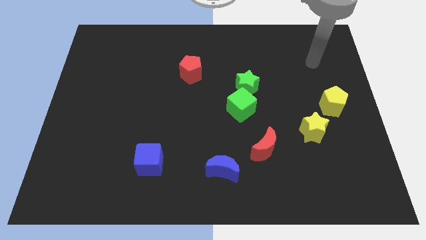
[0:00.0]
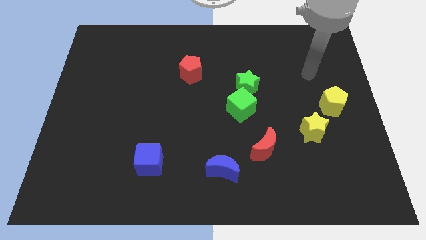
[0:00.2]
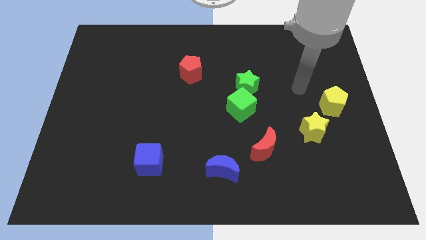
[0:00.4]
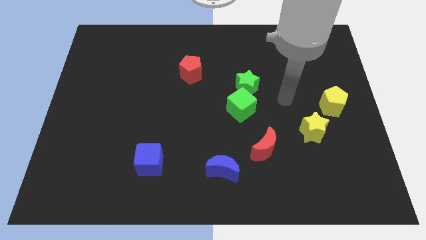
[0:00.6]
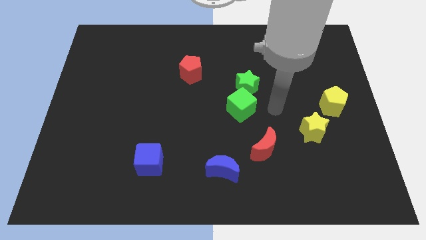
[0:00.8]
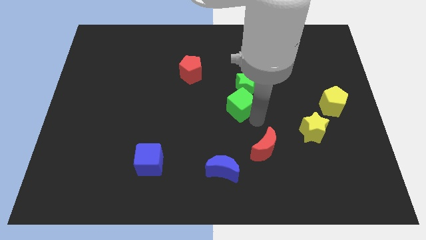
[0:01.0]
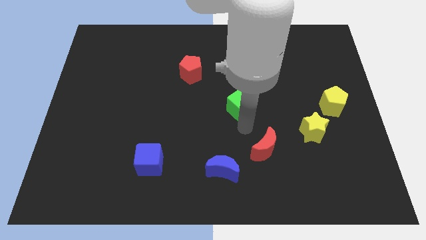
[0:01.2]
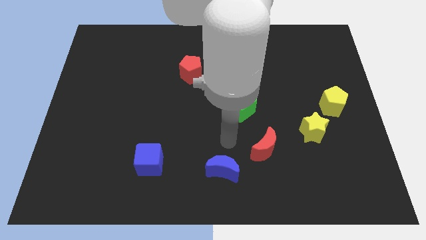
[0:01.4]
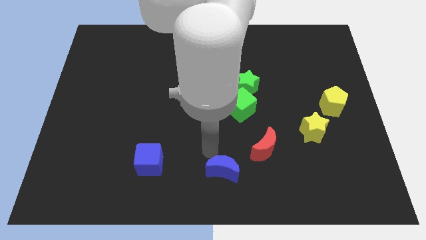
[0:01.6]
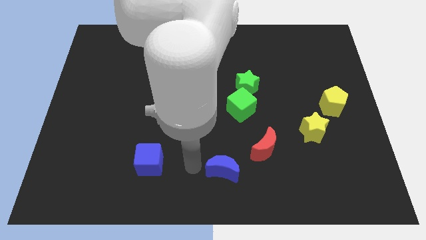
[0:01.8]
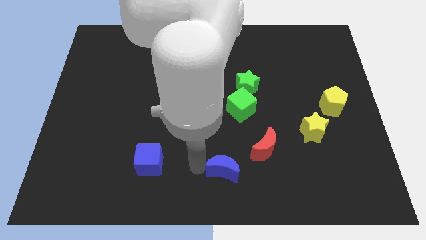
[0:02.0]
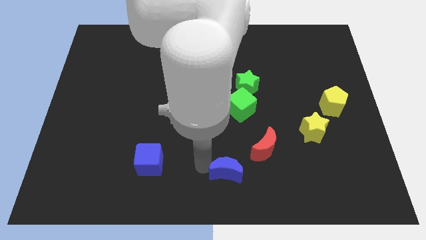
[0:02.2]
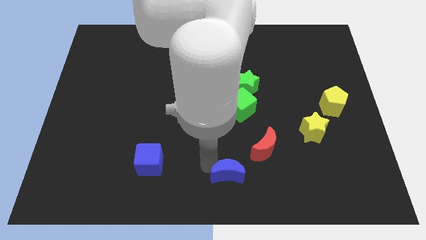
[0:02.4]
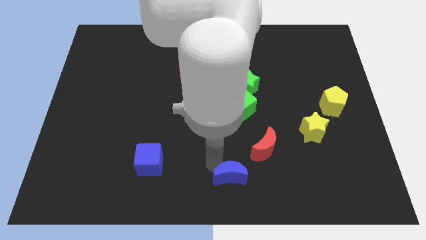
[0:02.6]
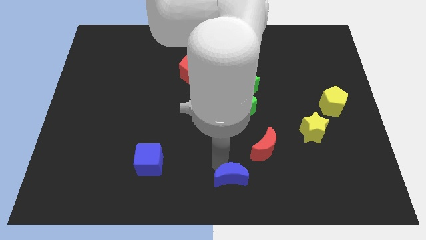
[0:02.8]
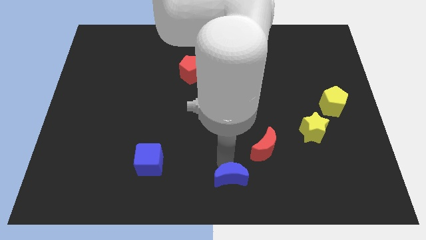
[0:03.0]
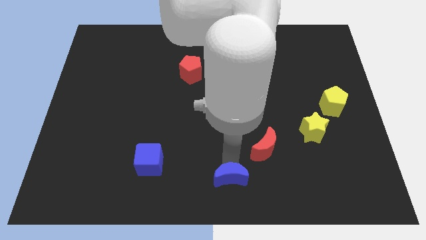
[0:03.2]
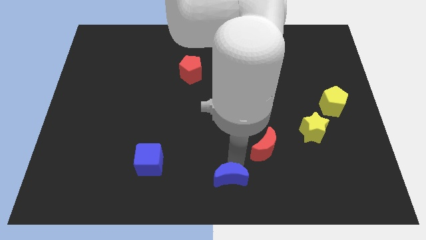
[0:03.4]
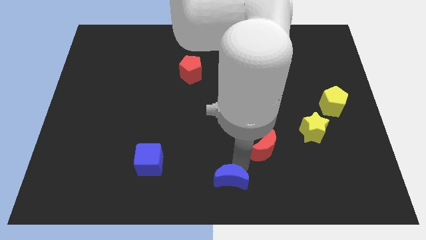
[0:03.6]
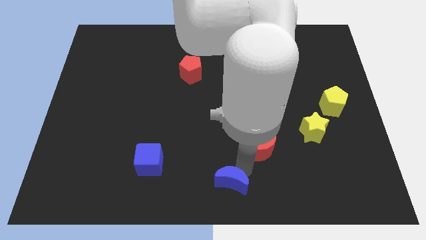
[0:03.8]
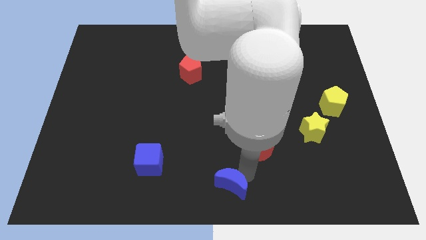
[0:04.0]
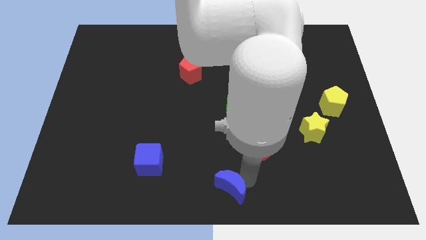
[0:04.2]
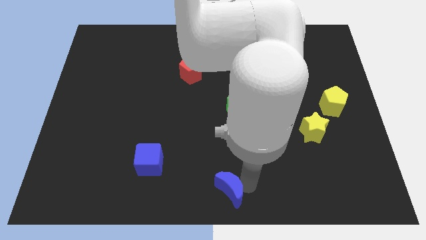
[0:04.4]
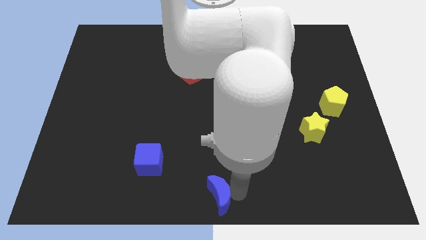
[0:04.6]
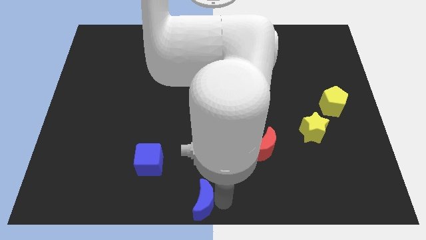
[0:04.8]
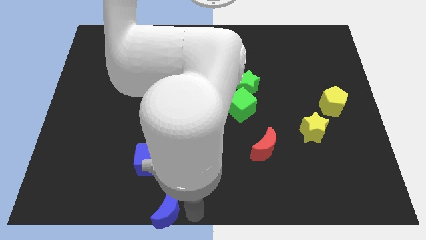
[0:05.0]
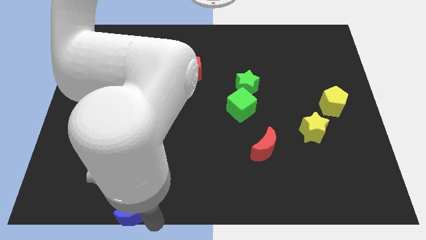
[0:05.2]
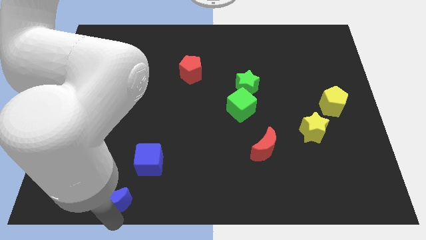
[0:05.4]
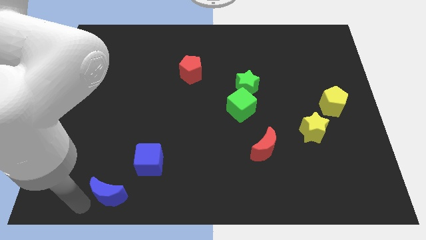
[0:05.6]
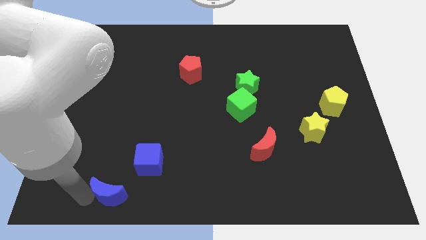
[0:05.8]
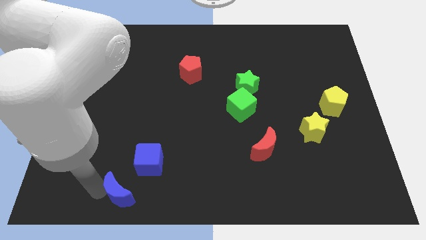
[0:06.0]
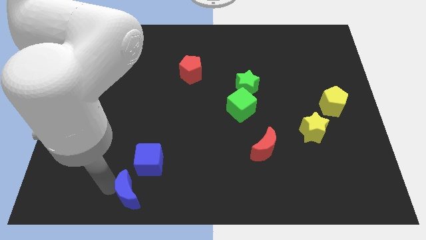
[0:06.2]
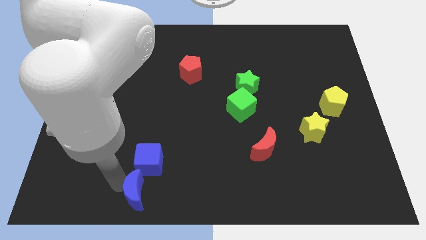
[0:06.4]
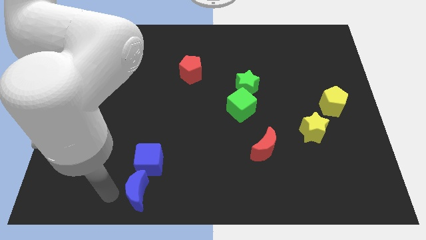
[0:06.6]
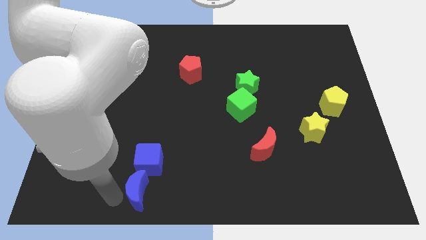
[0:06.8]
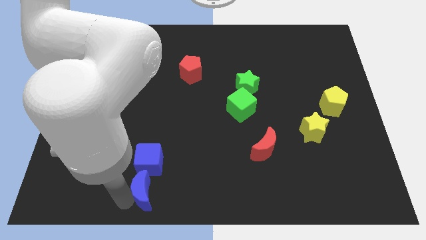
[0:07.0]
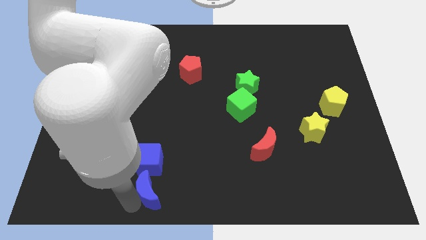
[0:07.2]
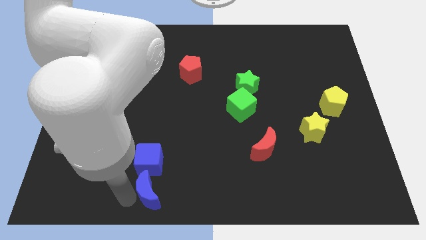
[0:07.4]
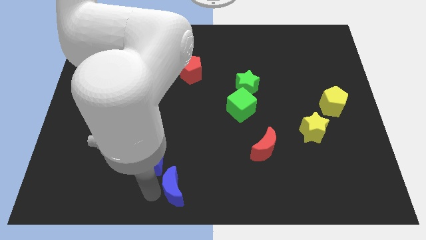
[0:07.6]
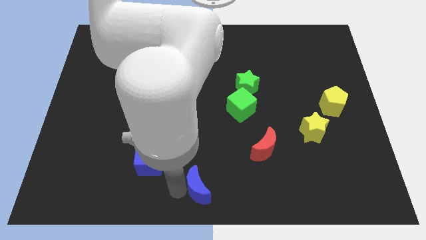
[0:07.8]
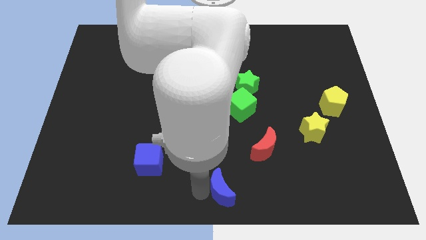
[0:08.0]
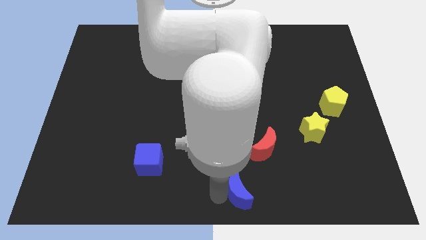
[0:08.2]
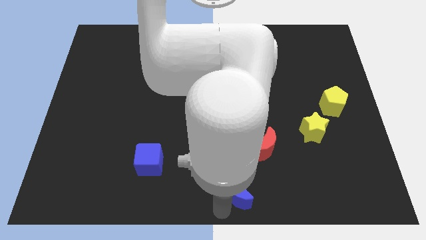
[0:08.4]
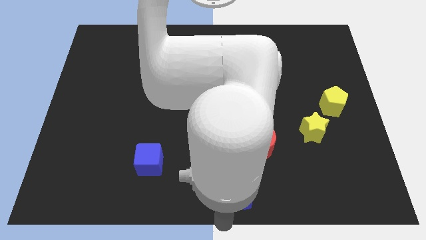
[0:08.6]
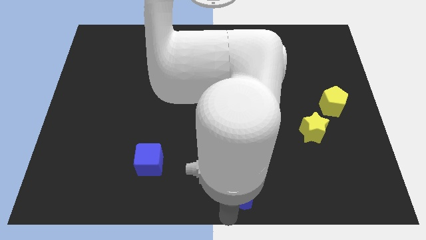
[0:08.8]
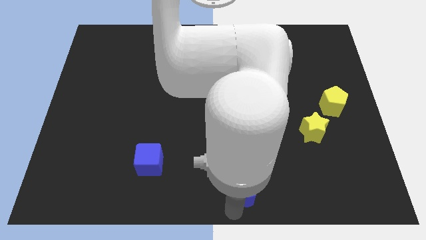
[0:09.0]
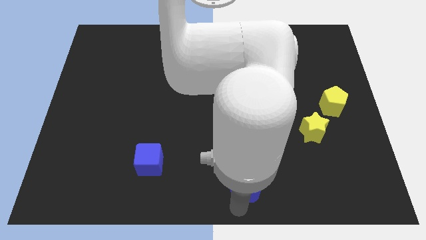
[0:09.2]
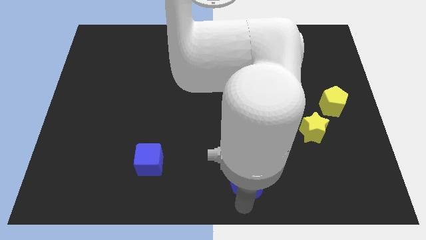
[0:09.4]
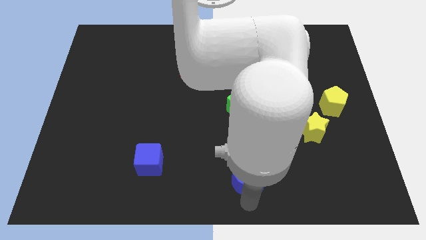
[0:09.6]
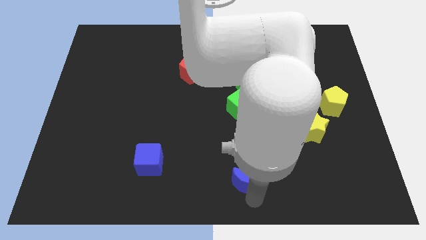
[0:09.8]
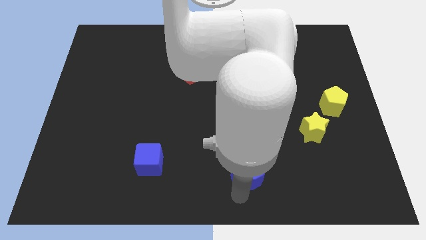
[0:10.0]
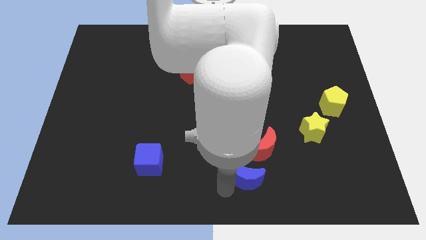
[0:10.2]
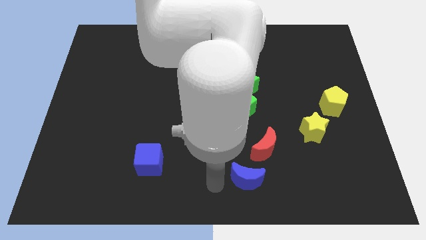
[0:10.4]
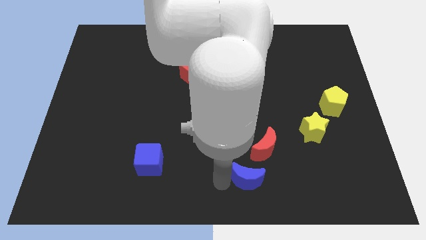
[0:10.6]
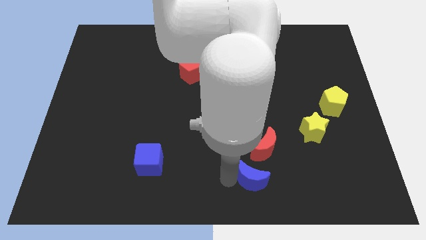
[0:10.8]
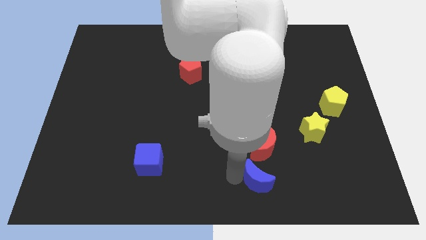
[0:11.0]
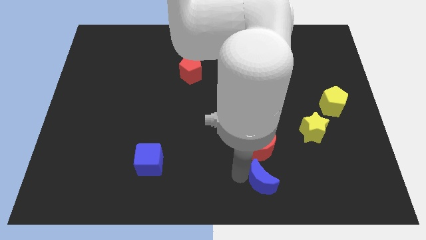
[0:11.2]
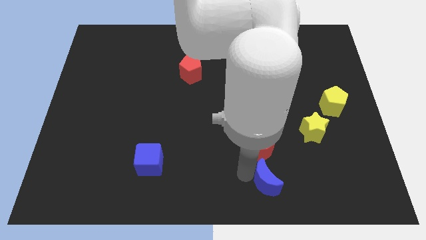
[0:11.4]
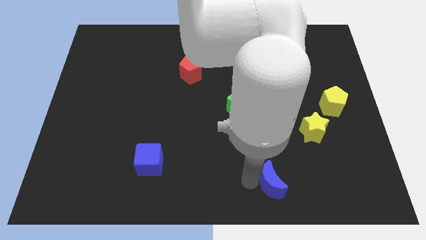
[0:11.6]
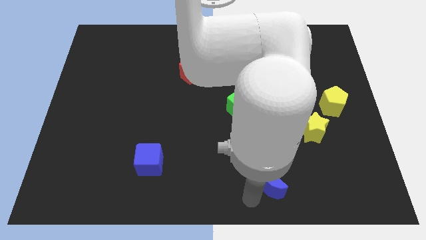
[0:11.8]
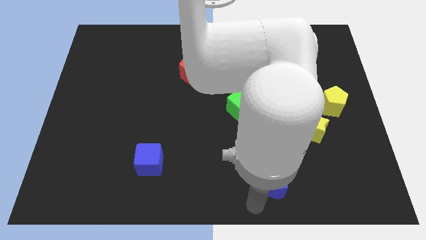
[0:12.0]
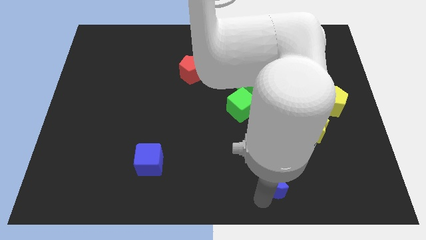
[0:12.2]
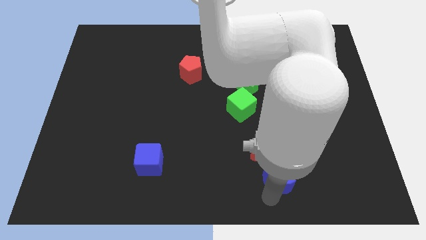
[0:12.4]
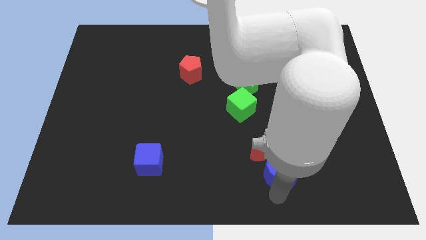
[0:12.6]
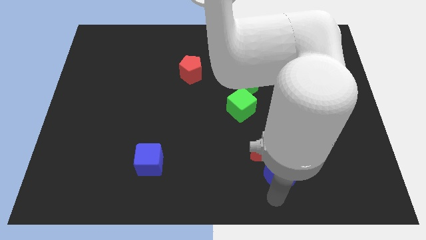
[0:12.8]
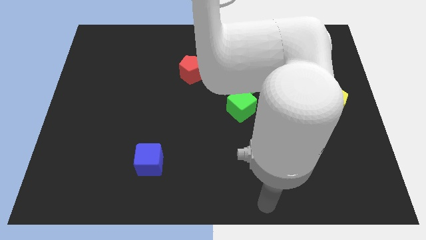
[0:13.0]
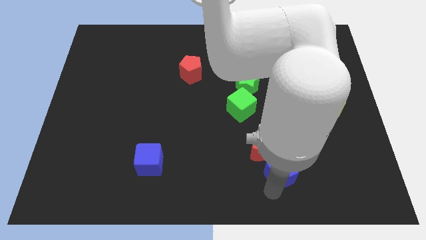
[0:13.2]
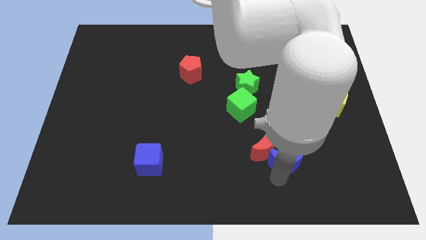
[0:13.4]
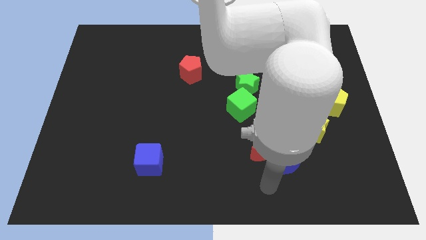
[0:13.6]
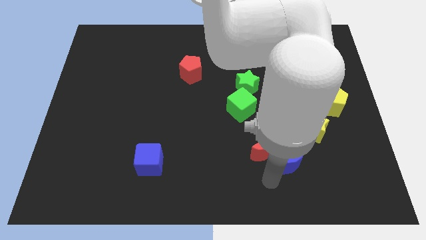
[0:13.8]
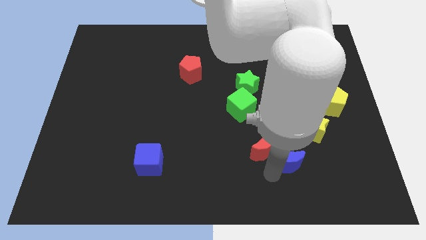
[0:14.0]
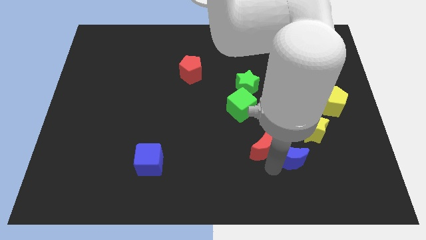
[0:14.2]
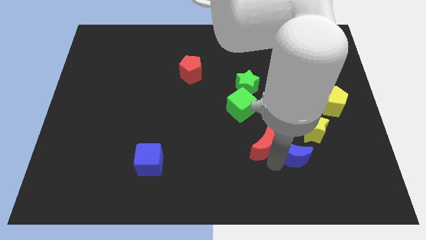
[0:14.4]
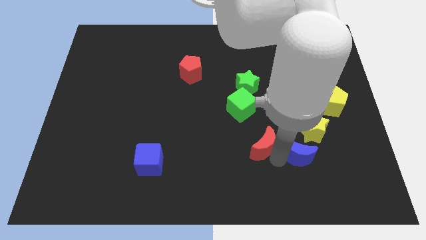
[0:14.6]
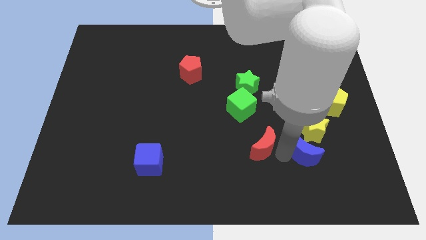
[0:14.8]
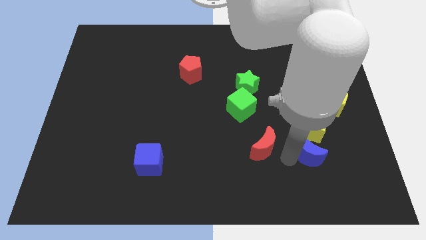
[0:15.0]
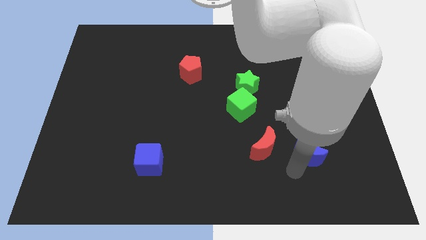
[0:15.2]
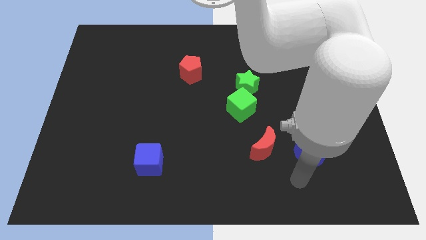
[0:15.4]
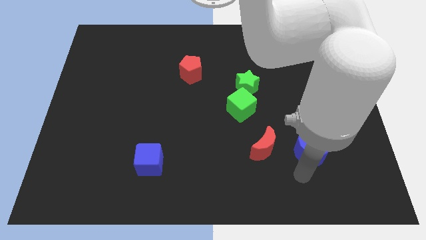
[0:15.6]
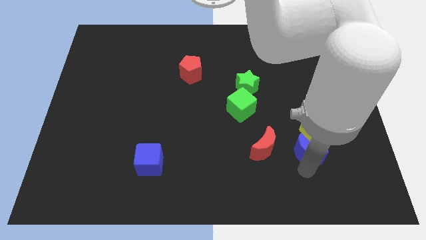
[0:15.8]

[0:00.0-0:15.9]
move the blue moon towards the yellow star
